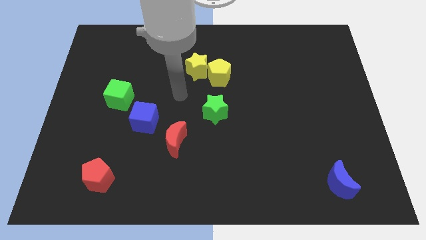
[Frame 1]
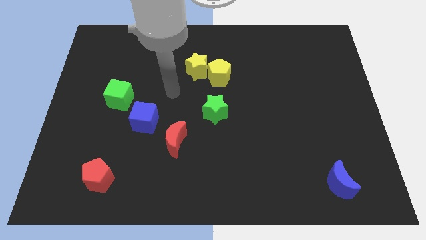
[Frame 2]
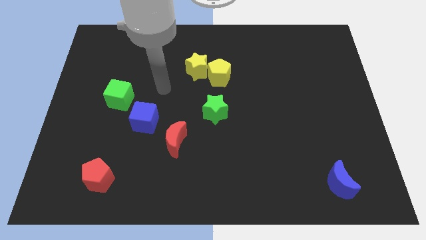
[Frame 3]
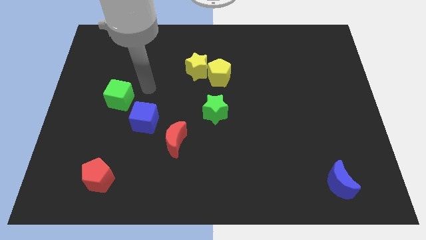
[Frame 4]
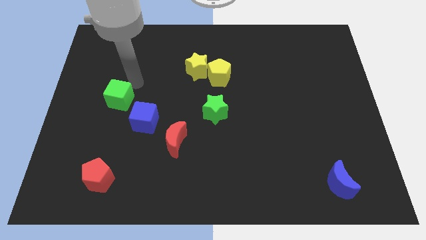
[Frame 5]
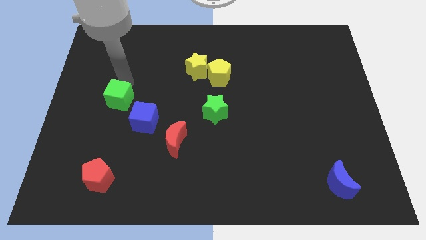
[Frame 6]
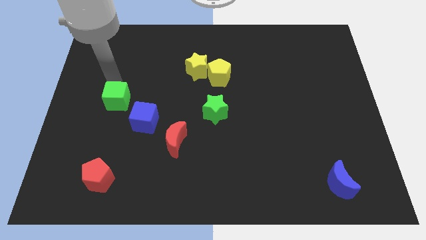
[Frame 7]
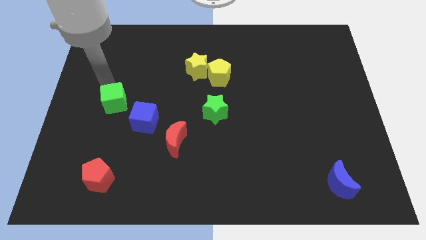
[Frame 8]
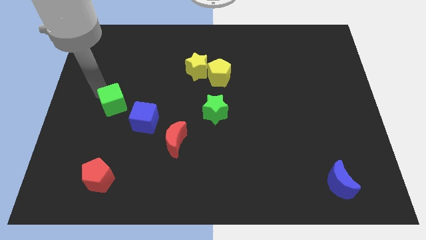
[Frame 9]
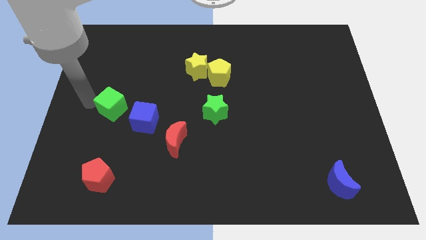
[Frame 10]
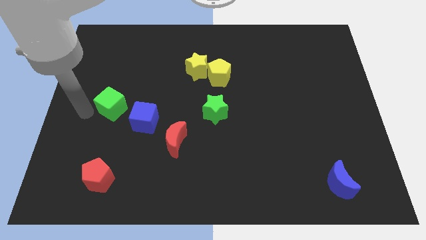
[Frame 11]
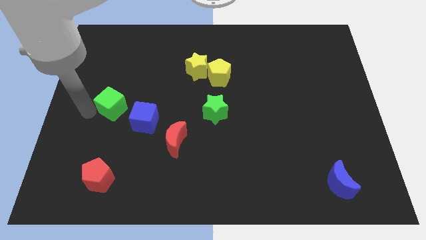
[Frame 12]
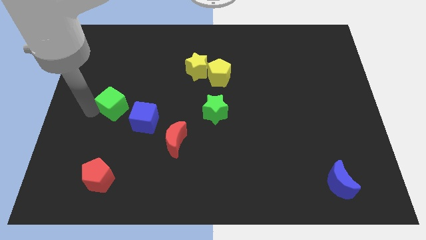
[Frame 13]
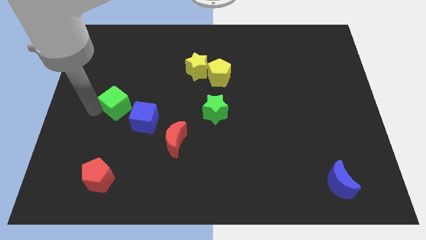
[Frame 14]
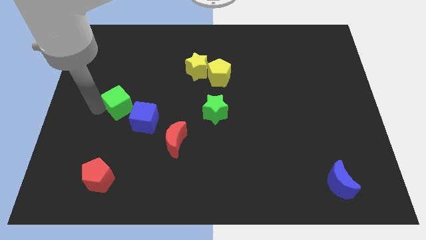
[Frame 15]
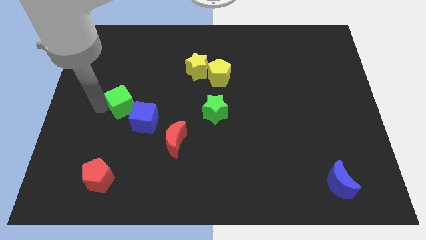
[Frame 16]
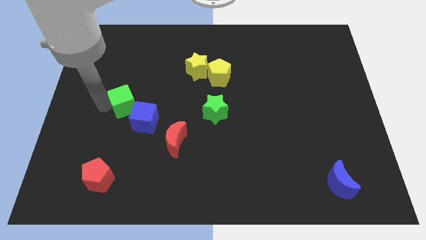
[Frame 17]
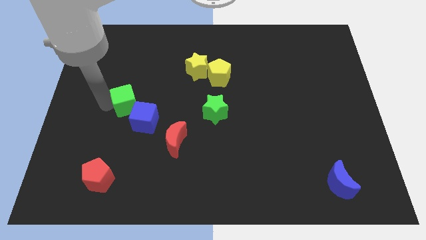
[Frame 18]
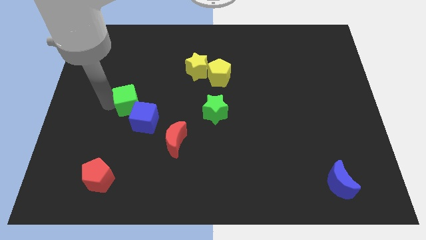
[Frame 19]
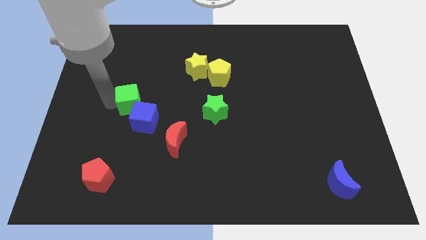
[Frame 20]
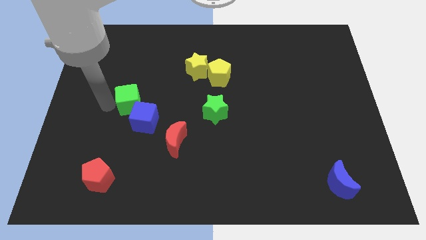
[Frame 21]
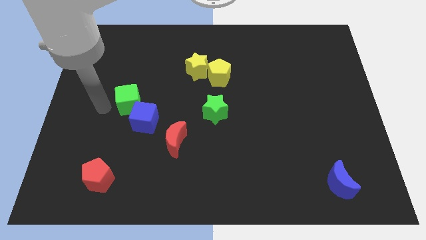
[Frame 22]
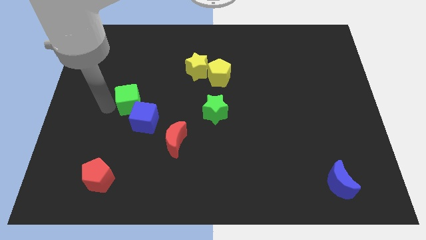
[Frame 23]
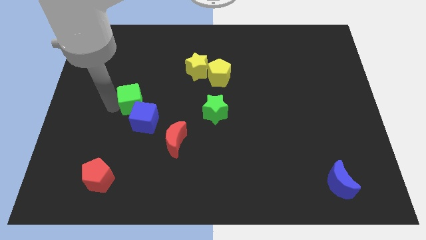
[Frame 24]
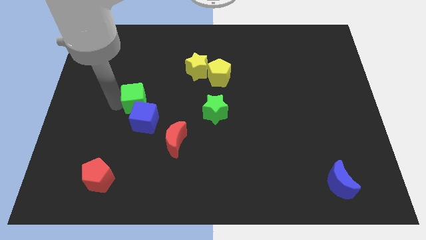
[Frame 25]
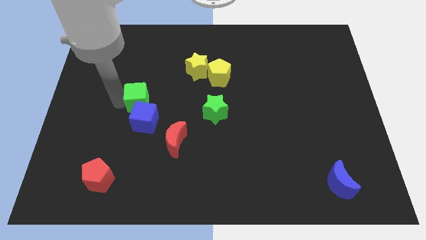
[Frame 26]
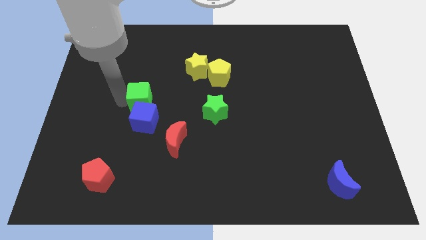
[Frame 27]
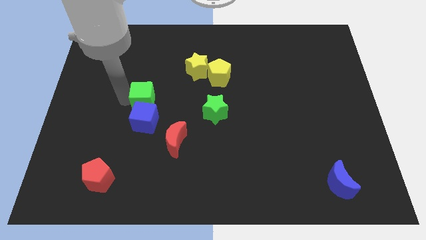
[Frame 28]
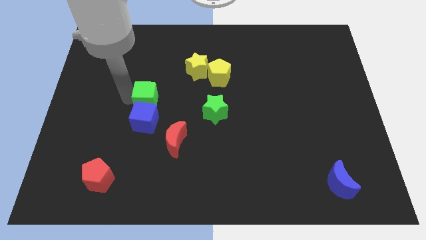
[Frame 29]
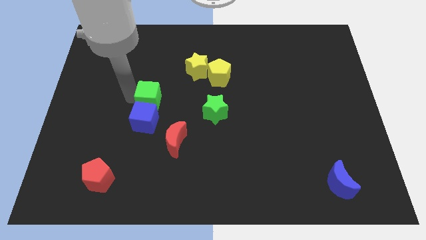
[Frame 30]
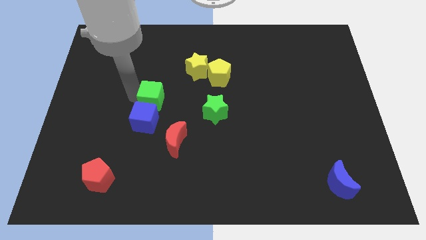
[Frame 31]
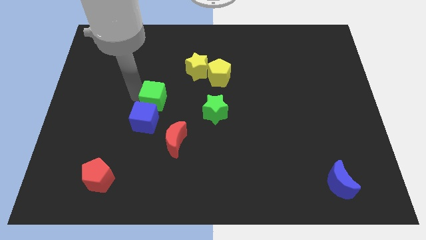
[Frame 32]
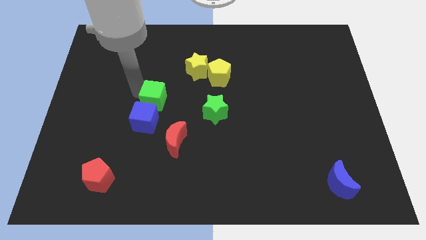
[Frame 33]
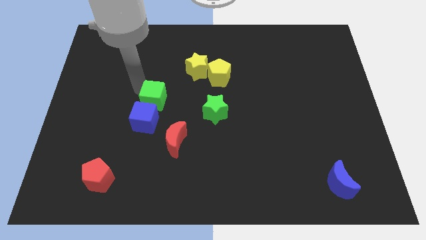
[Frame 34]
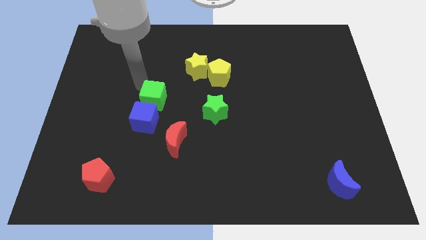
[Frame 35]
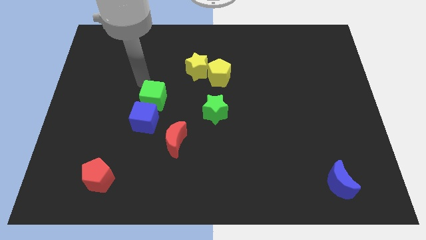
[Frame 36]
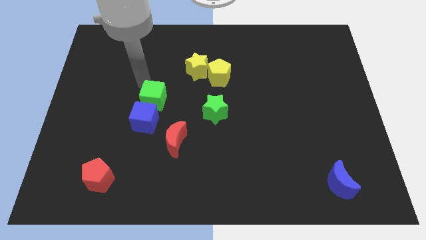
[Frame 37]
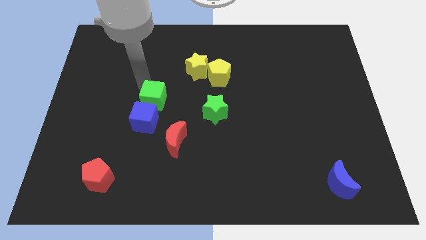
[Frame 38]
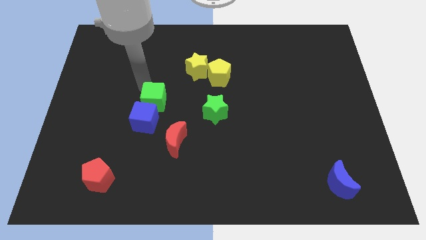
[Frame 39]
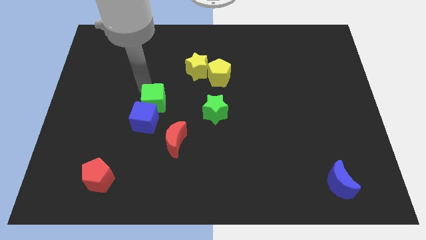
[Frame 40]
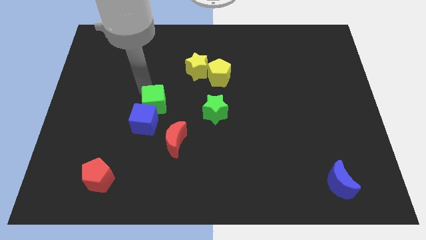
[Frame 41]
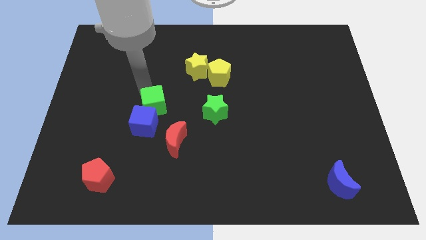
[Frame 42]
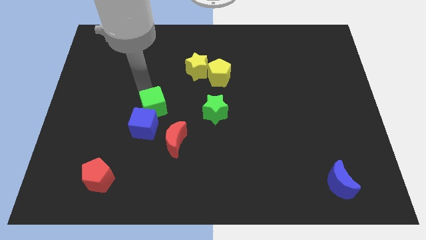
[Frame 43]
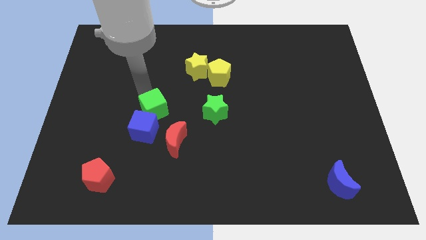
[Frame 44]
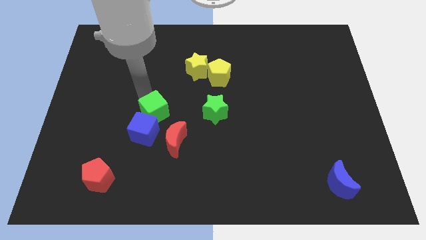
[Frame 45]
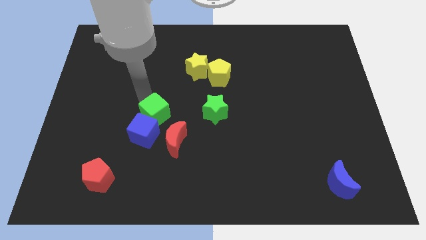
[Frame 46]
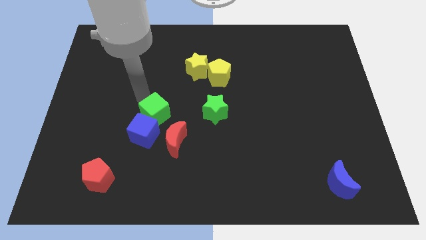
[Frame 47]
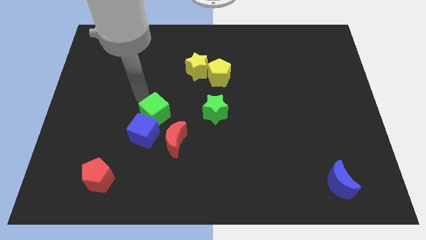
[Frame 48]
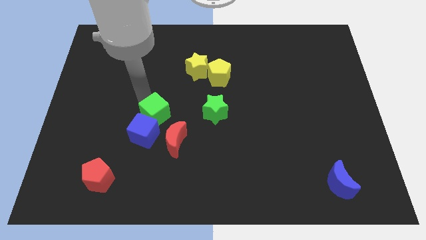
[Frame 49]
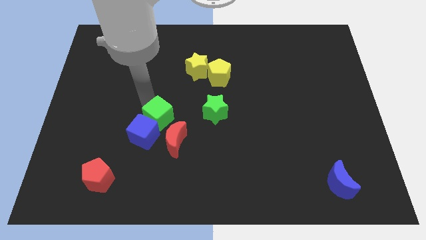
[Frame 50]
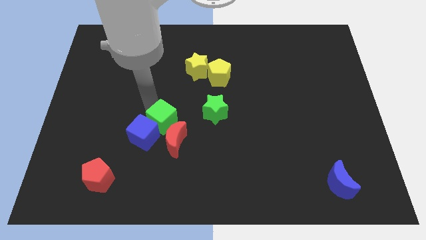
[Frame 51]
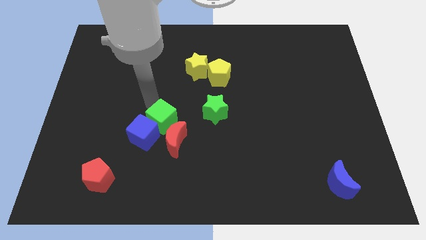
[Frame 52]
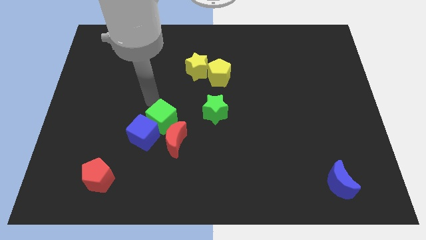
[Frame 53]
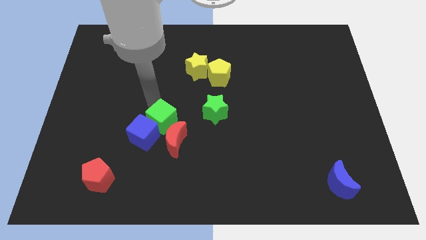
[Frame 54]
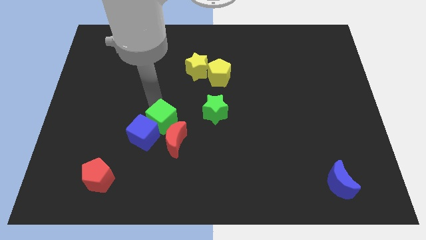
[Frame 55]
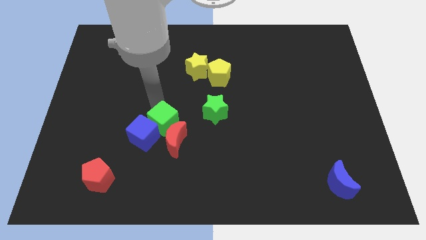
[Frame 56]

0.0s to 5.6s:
push the green cube next to the red moon

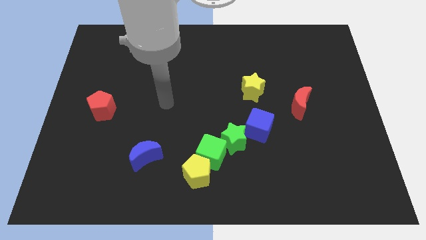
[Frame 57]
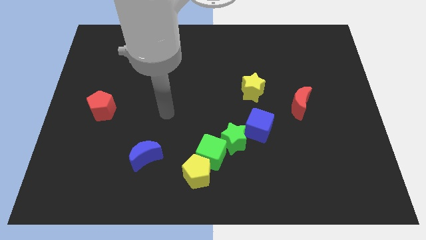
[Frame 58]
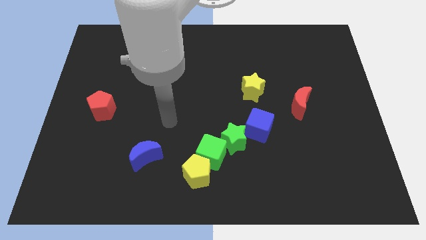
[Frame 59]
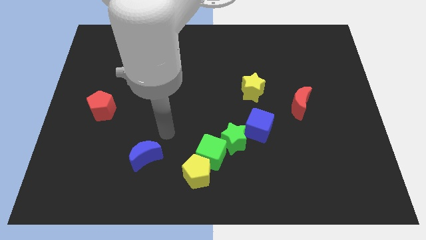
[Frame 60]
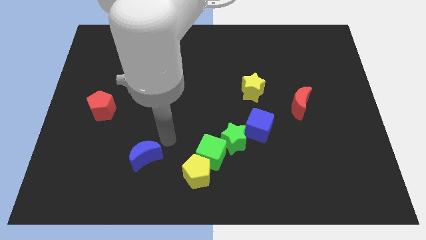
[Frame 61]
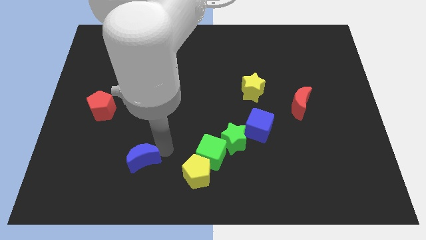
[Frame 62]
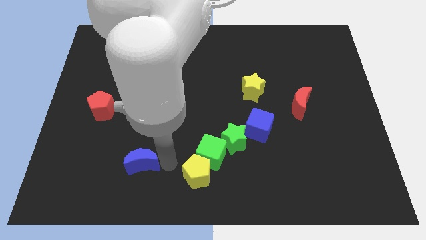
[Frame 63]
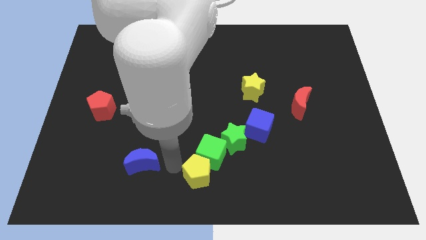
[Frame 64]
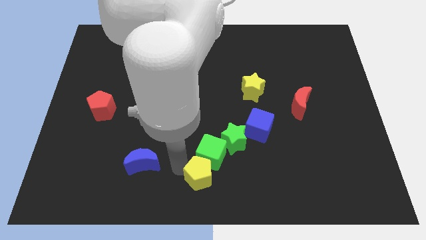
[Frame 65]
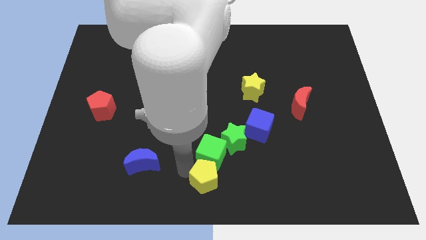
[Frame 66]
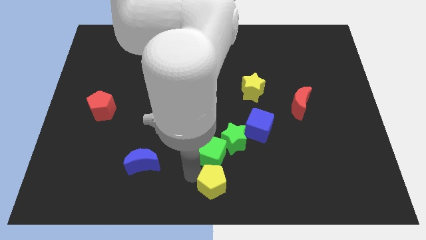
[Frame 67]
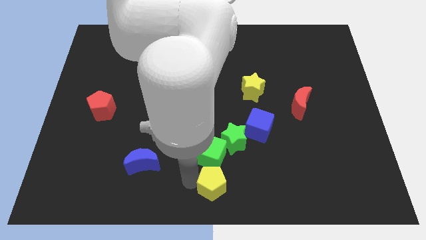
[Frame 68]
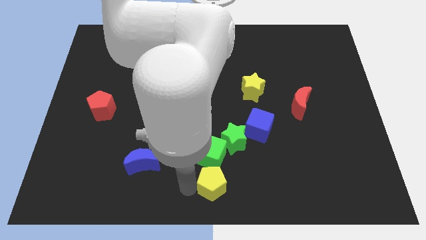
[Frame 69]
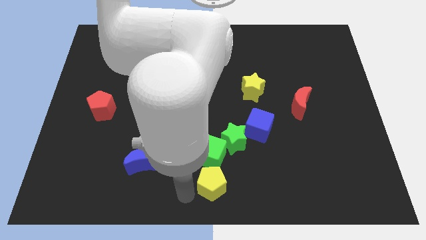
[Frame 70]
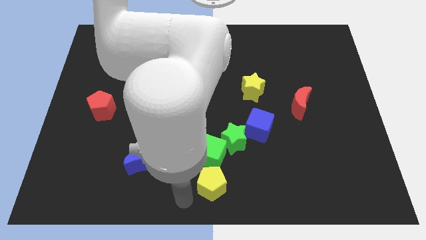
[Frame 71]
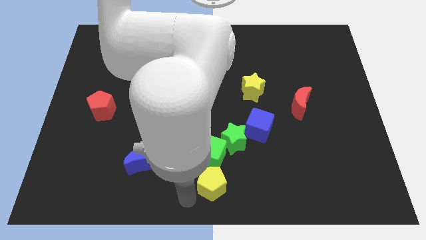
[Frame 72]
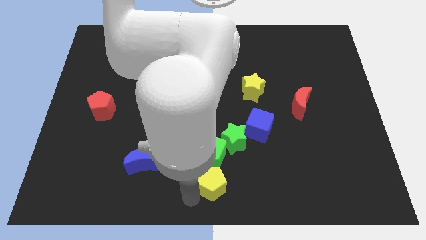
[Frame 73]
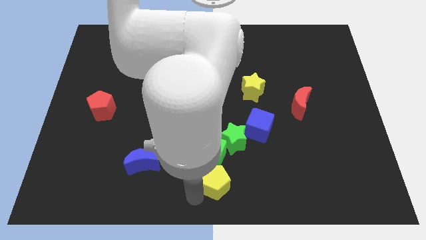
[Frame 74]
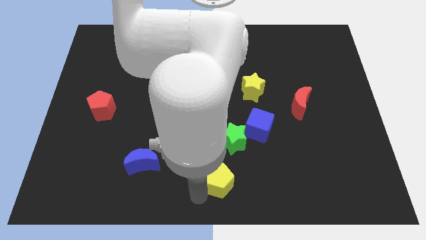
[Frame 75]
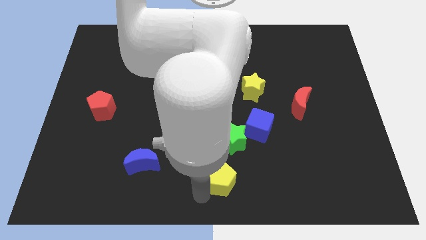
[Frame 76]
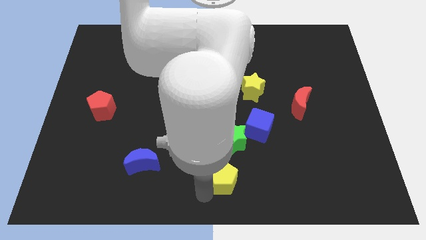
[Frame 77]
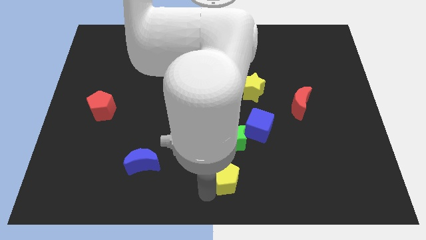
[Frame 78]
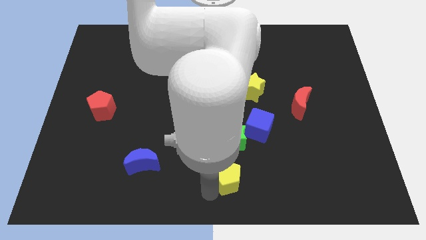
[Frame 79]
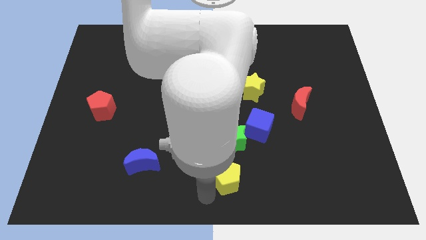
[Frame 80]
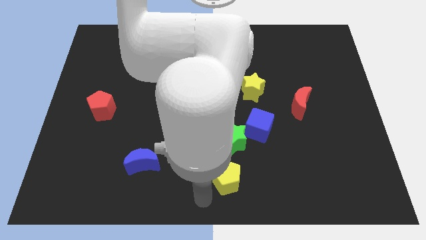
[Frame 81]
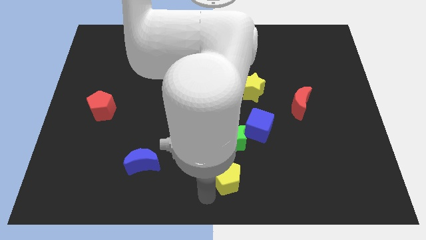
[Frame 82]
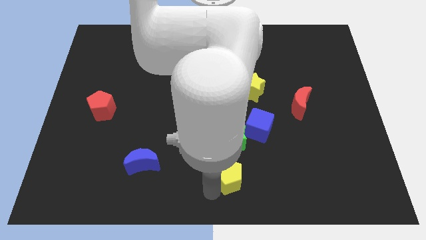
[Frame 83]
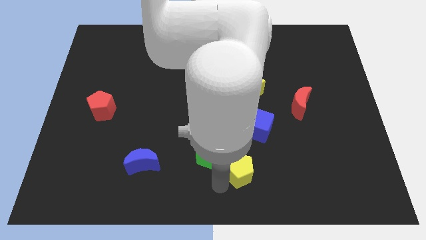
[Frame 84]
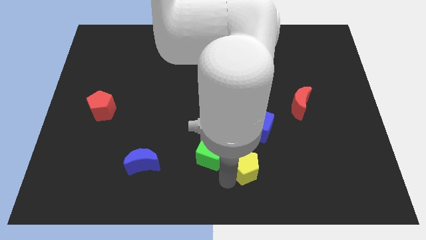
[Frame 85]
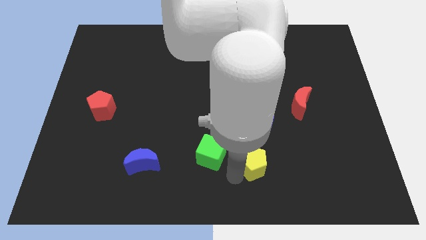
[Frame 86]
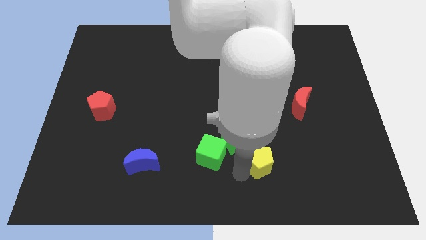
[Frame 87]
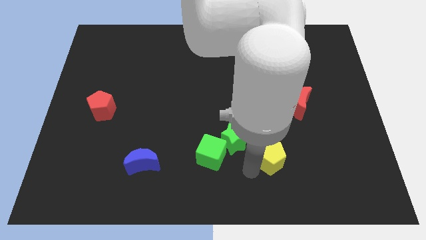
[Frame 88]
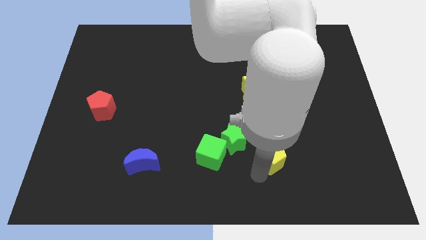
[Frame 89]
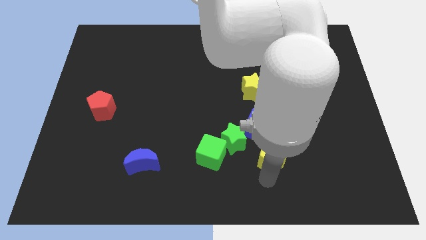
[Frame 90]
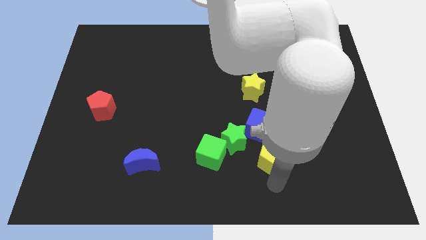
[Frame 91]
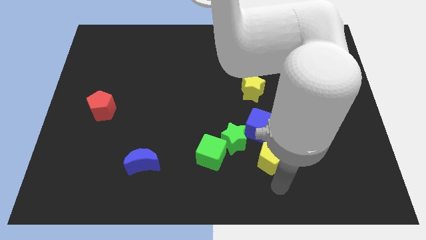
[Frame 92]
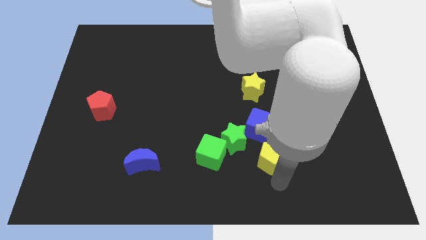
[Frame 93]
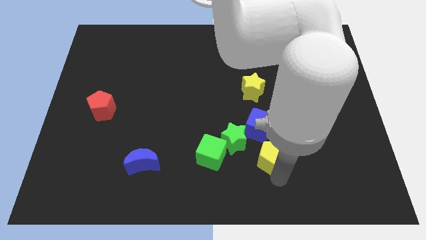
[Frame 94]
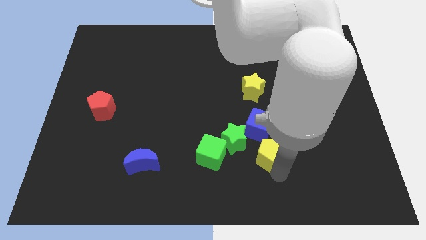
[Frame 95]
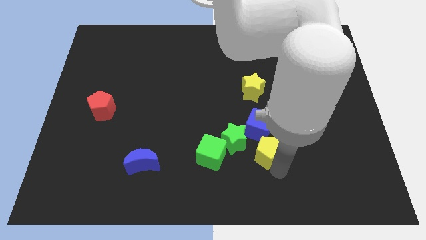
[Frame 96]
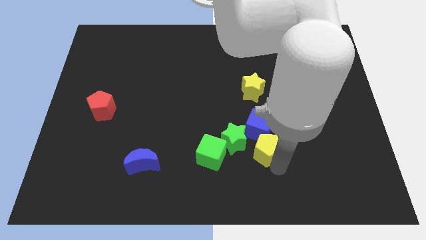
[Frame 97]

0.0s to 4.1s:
put the yellow pentagon towards the blue cube
